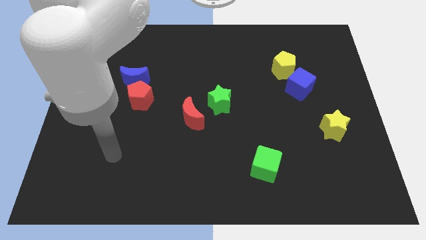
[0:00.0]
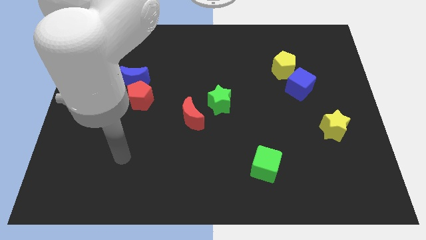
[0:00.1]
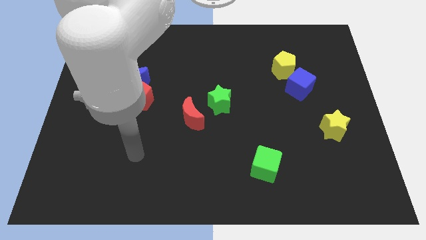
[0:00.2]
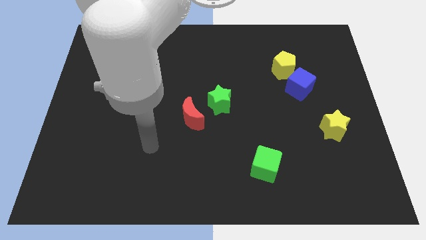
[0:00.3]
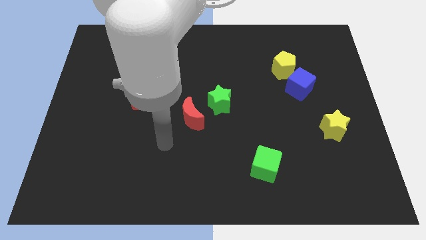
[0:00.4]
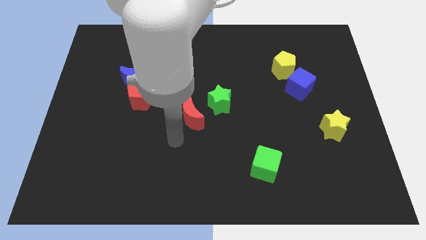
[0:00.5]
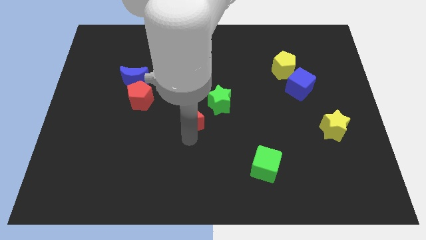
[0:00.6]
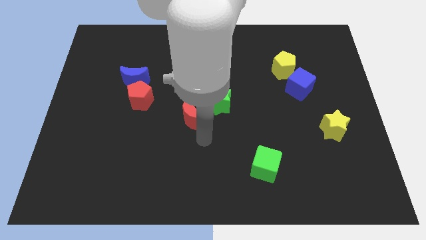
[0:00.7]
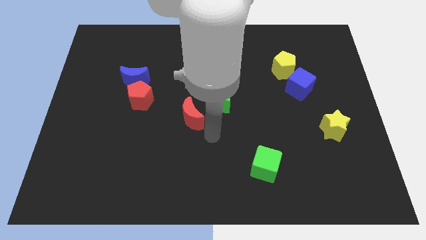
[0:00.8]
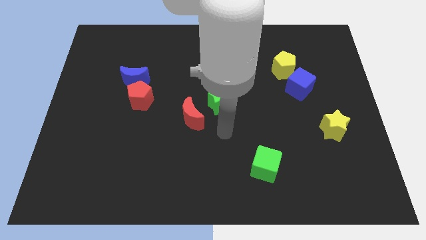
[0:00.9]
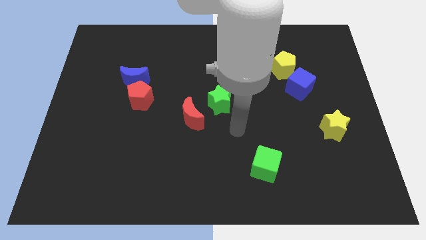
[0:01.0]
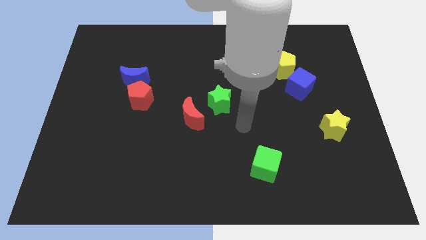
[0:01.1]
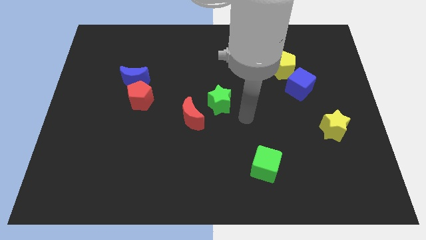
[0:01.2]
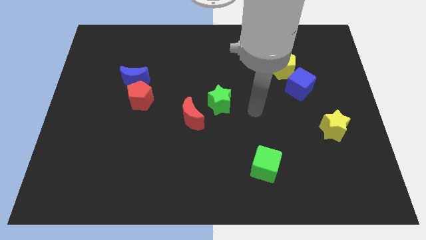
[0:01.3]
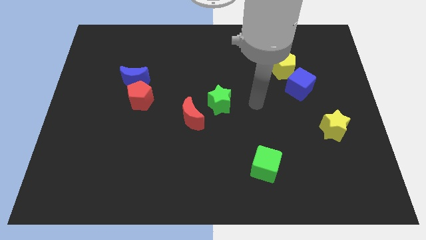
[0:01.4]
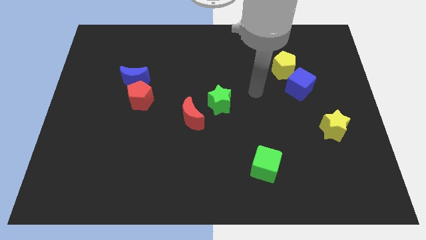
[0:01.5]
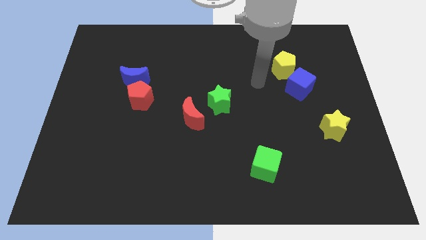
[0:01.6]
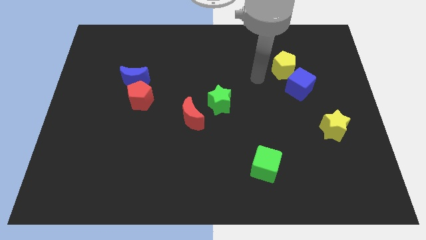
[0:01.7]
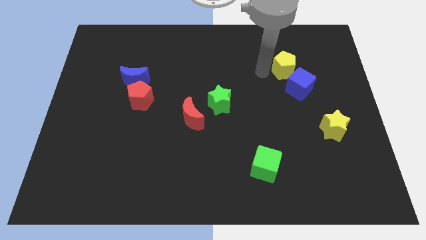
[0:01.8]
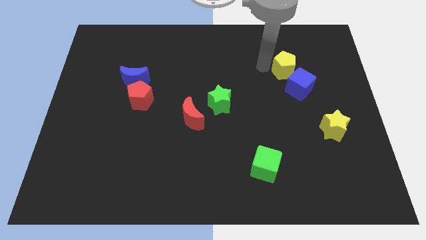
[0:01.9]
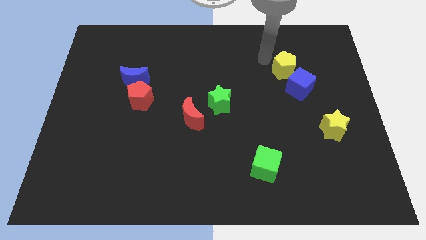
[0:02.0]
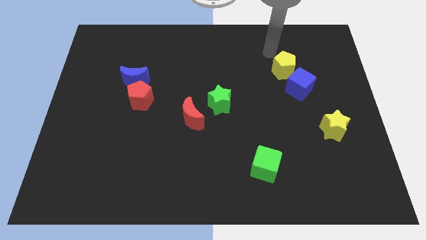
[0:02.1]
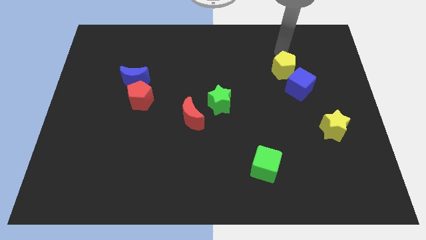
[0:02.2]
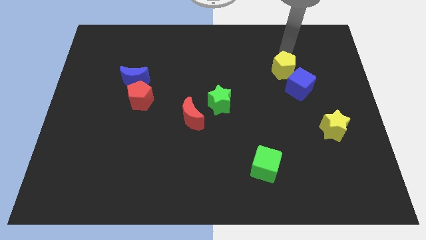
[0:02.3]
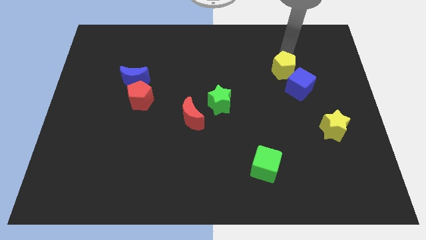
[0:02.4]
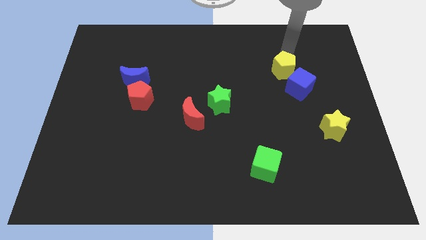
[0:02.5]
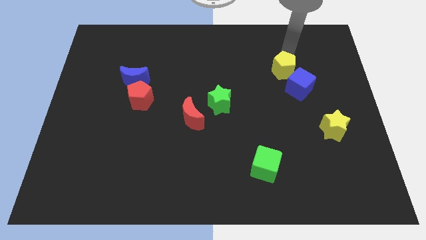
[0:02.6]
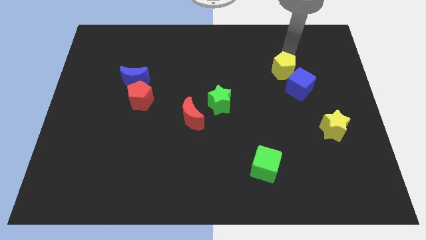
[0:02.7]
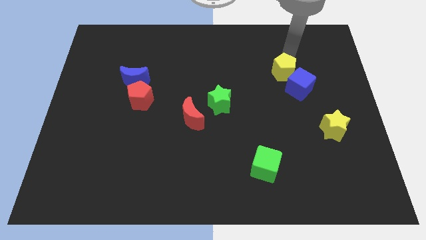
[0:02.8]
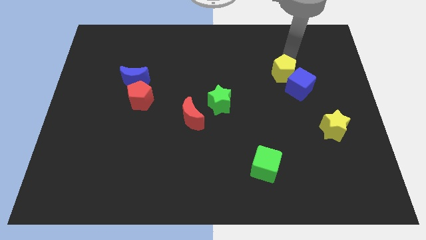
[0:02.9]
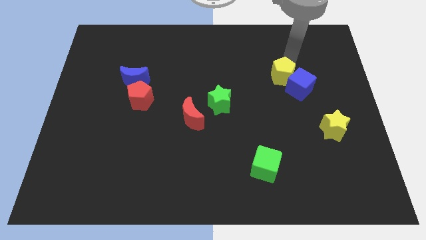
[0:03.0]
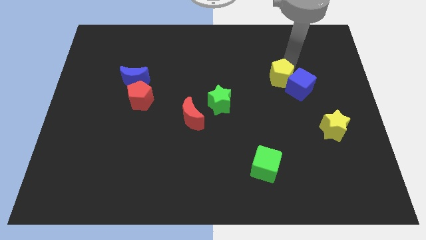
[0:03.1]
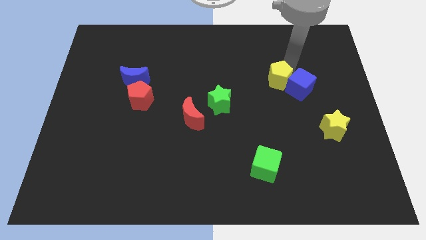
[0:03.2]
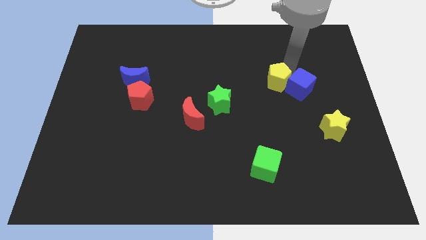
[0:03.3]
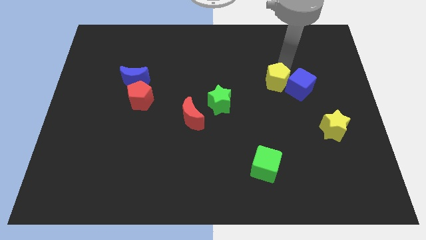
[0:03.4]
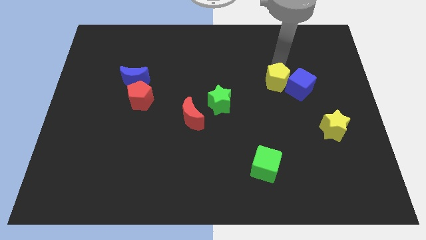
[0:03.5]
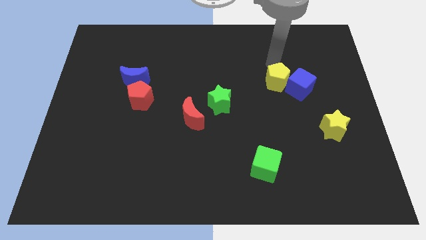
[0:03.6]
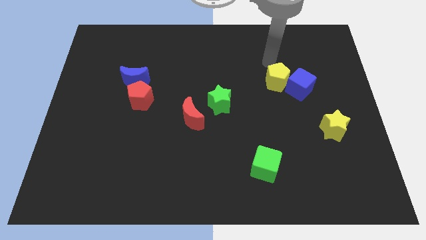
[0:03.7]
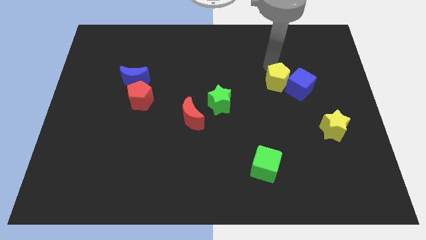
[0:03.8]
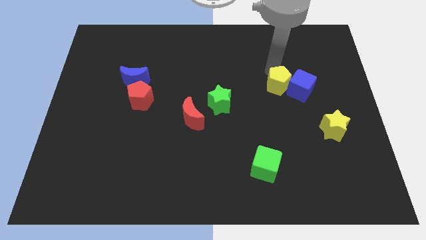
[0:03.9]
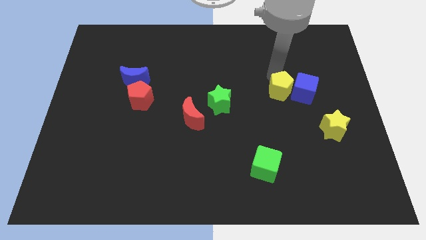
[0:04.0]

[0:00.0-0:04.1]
slightly push the yellow pentagon downwards

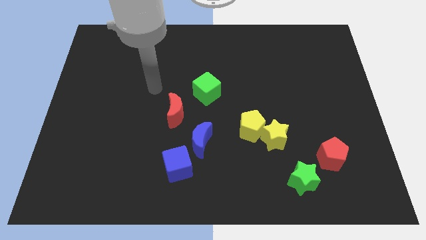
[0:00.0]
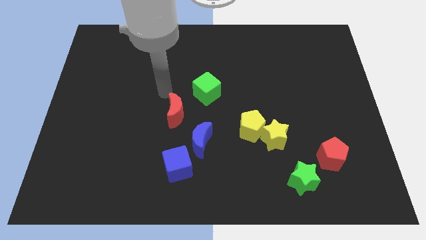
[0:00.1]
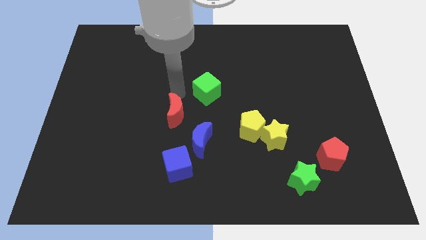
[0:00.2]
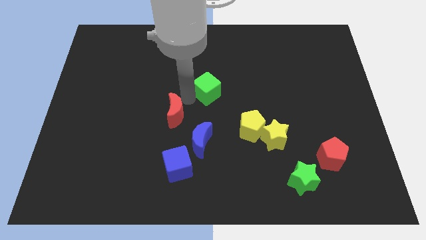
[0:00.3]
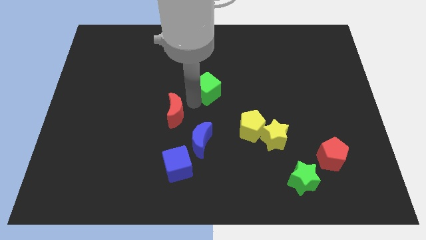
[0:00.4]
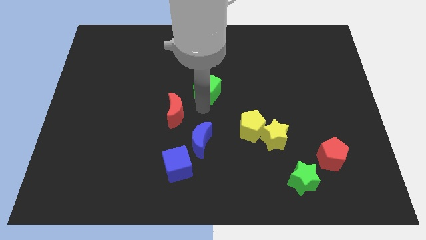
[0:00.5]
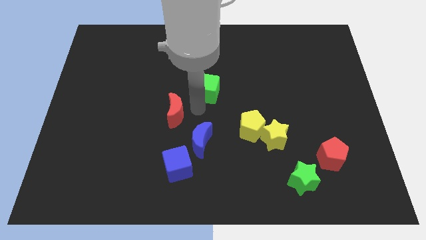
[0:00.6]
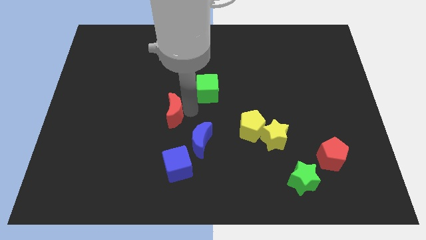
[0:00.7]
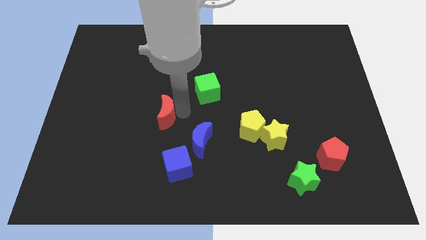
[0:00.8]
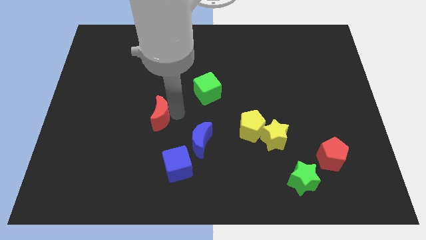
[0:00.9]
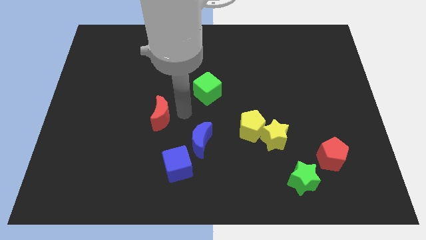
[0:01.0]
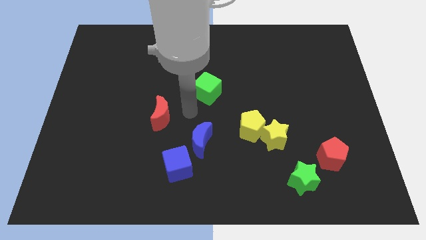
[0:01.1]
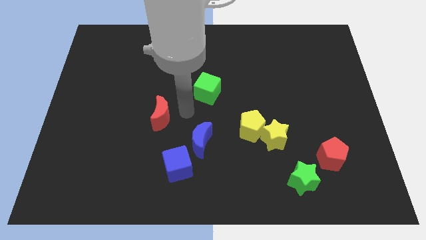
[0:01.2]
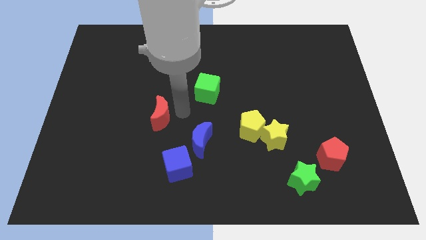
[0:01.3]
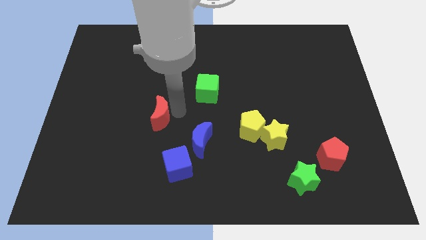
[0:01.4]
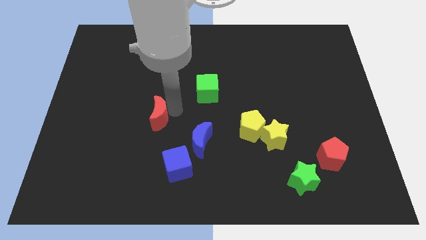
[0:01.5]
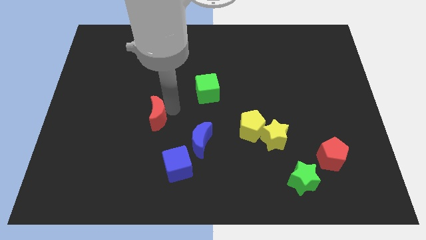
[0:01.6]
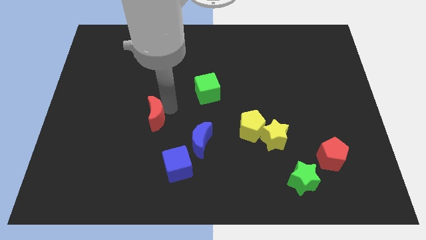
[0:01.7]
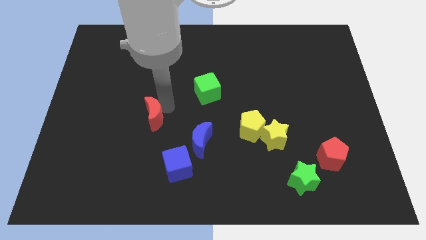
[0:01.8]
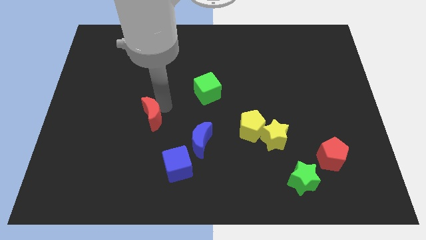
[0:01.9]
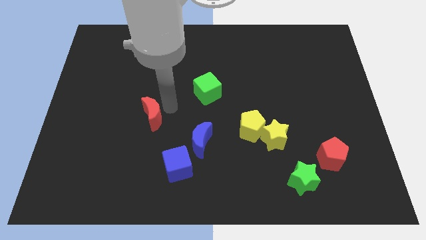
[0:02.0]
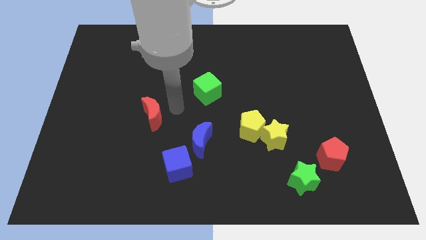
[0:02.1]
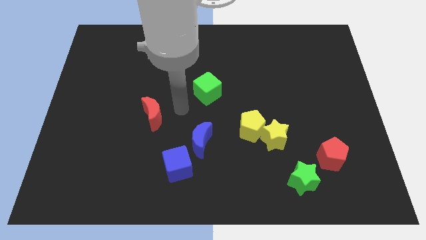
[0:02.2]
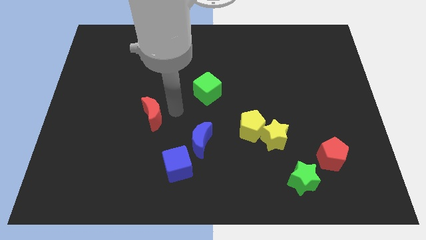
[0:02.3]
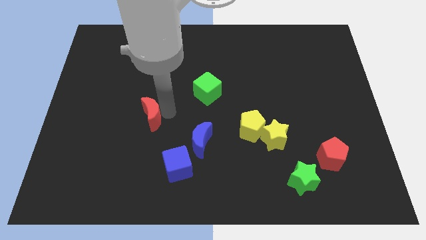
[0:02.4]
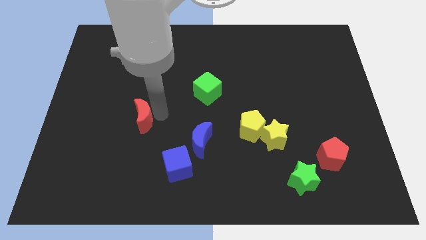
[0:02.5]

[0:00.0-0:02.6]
slide the red moon to the left a little

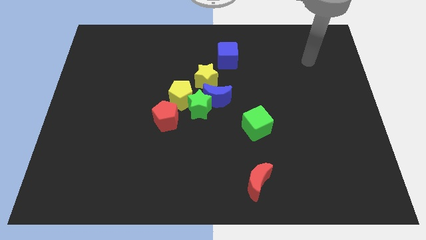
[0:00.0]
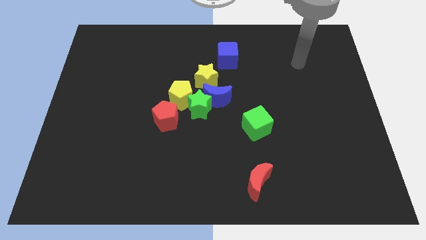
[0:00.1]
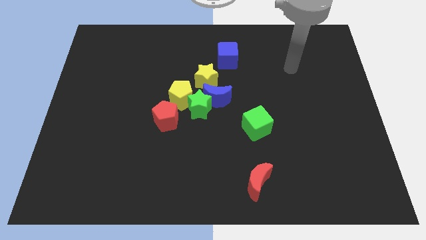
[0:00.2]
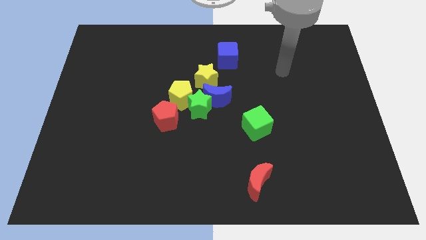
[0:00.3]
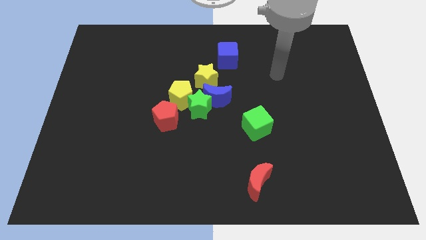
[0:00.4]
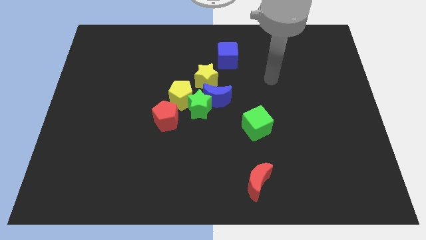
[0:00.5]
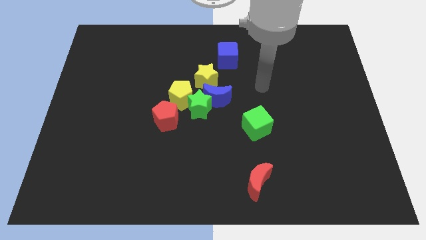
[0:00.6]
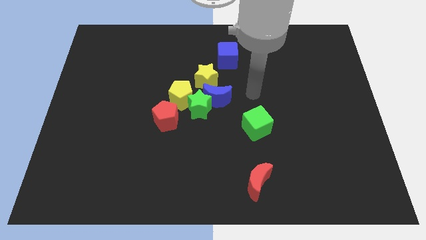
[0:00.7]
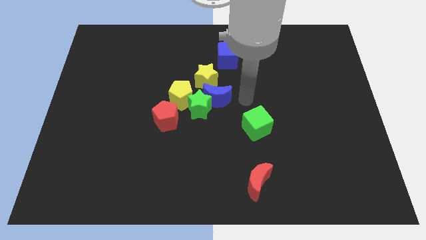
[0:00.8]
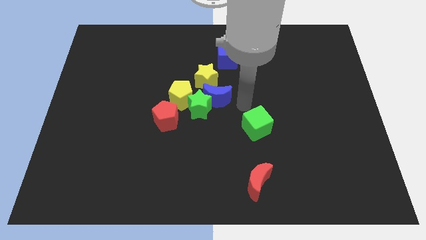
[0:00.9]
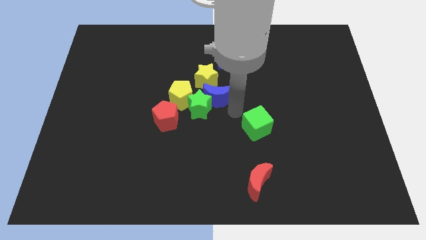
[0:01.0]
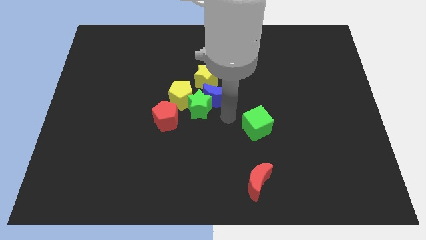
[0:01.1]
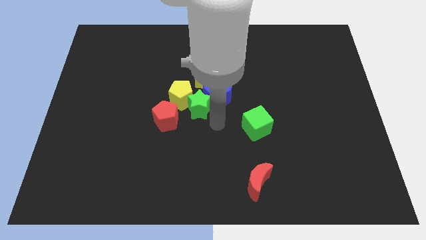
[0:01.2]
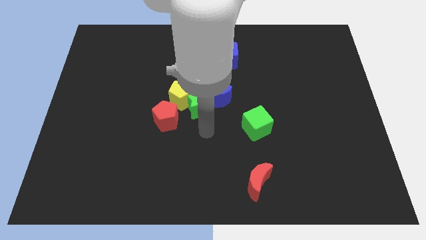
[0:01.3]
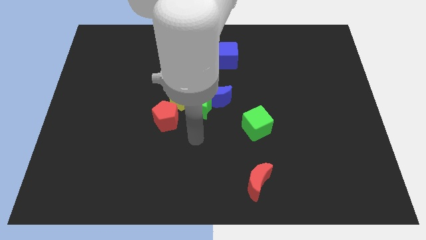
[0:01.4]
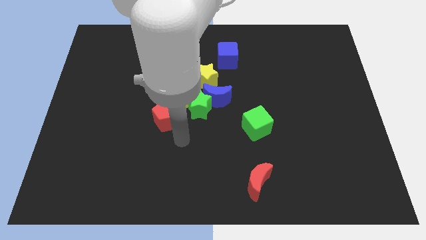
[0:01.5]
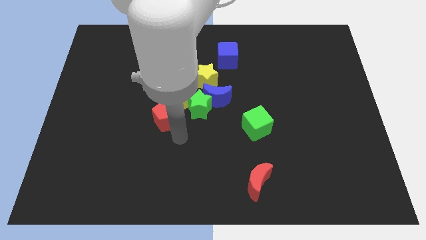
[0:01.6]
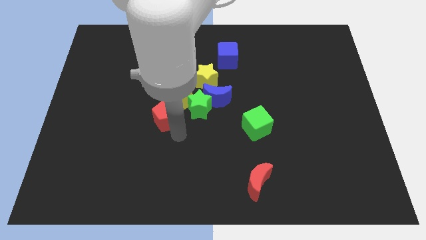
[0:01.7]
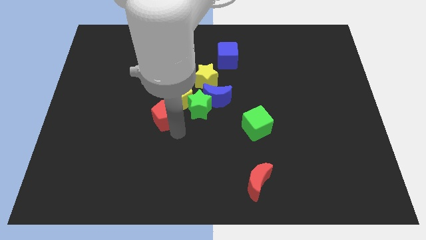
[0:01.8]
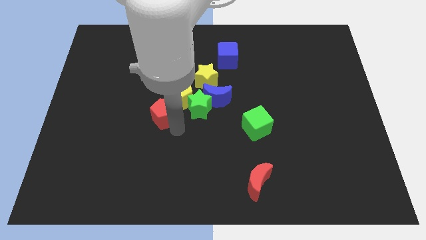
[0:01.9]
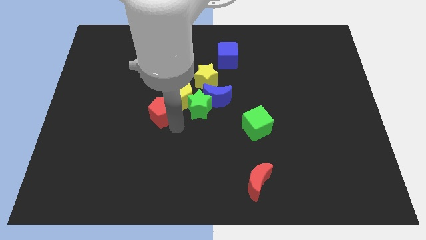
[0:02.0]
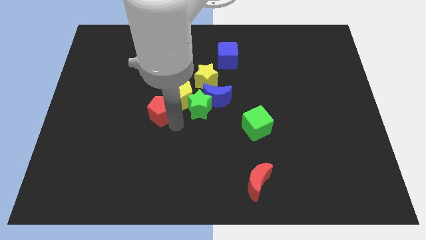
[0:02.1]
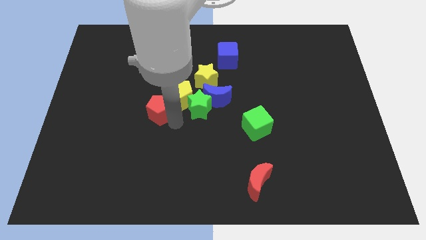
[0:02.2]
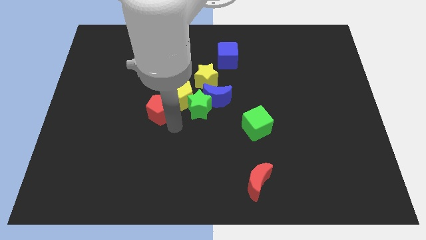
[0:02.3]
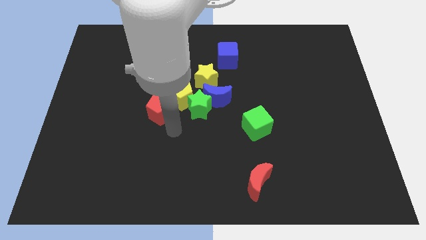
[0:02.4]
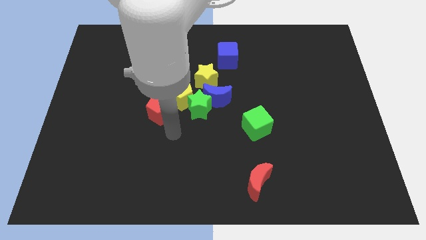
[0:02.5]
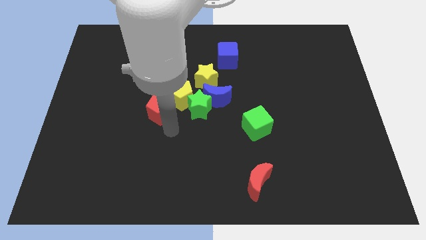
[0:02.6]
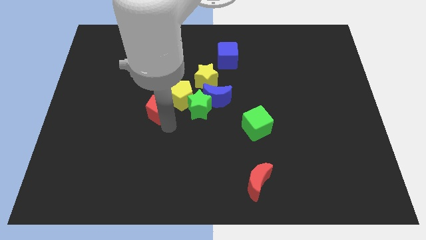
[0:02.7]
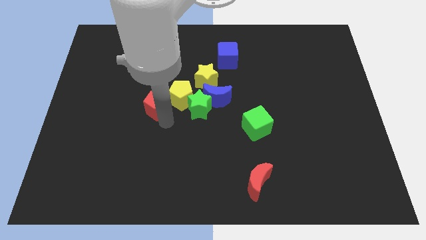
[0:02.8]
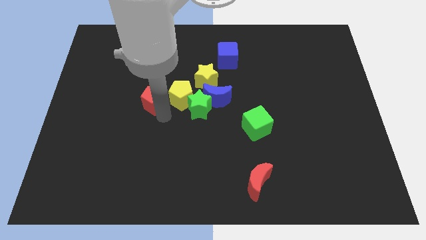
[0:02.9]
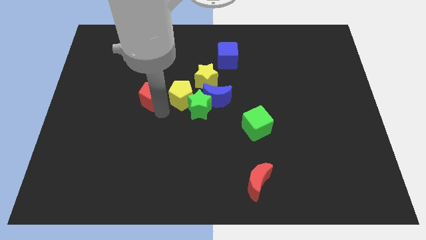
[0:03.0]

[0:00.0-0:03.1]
slightly push the red pentagon up and then to the left
